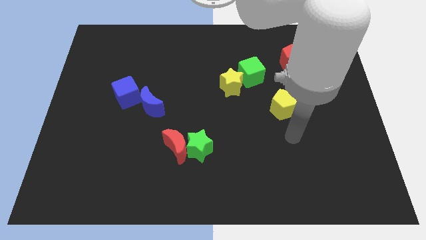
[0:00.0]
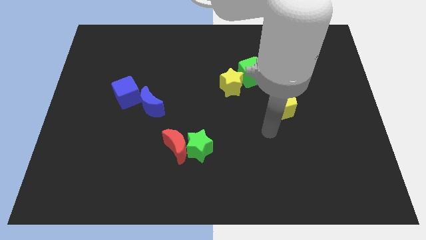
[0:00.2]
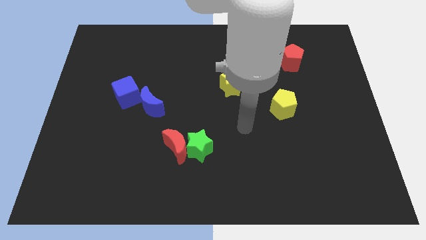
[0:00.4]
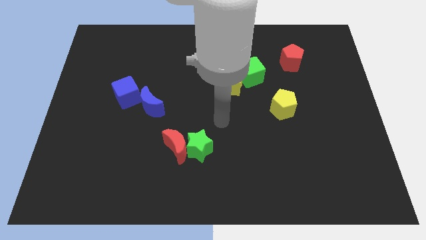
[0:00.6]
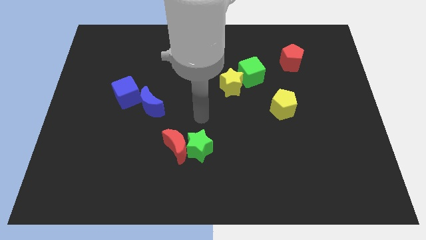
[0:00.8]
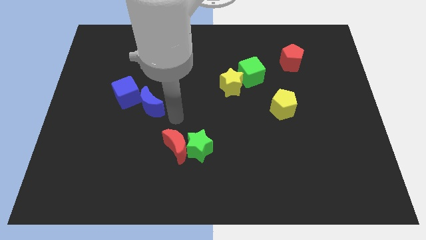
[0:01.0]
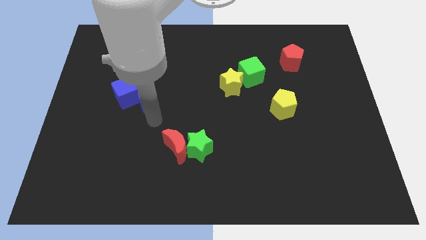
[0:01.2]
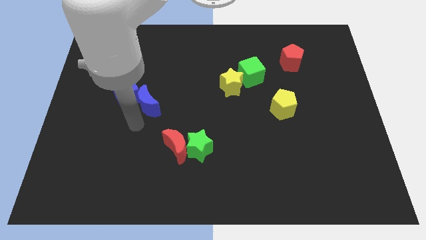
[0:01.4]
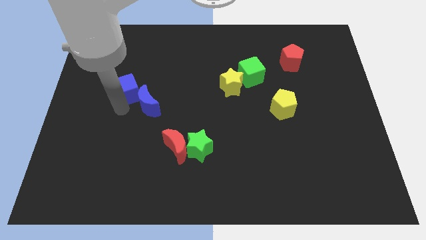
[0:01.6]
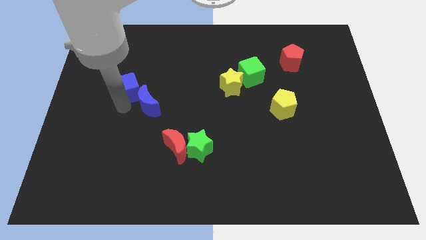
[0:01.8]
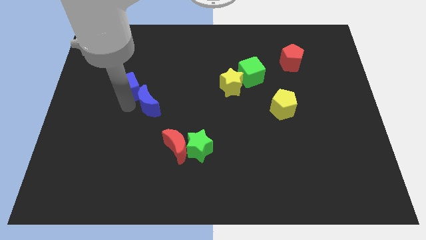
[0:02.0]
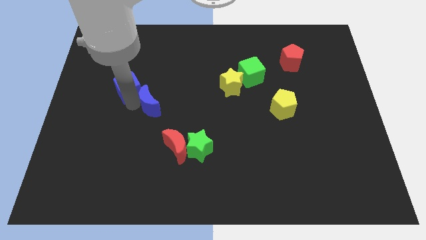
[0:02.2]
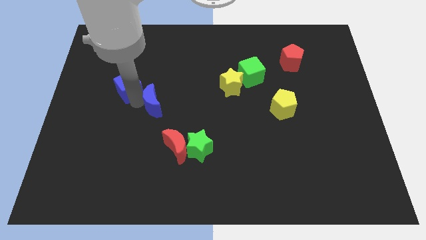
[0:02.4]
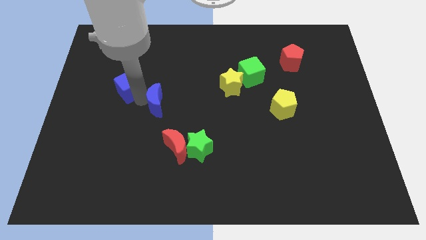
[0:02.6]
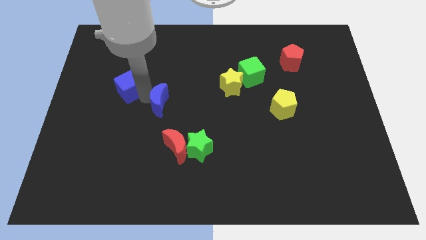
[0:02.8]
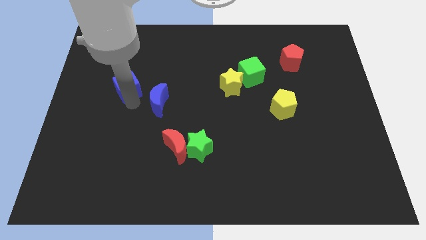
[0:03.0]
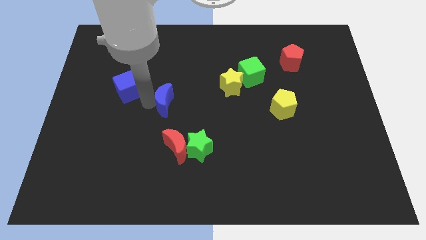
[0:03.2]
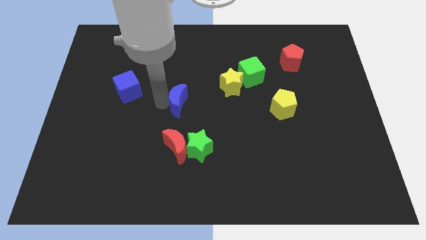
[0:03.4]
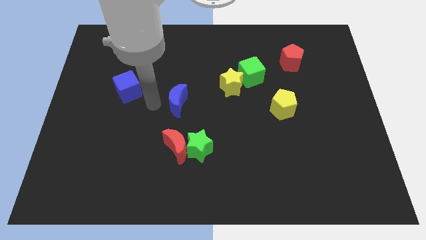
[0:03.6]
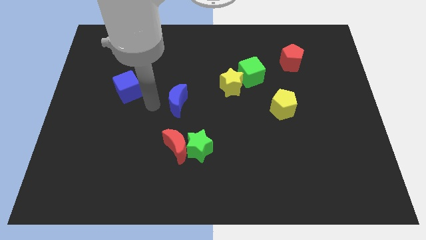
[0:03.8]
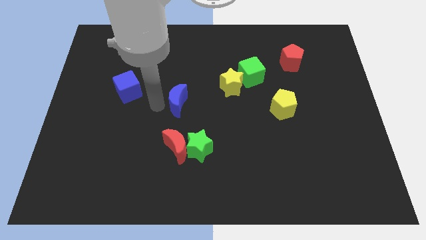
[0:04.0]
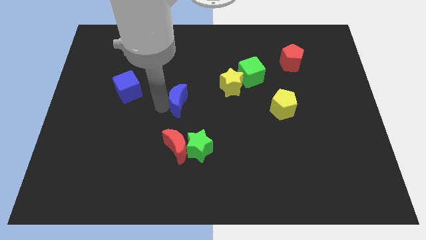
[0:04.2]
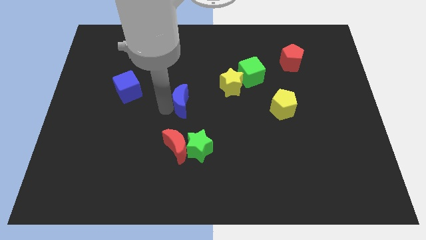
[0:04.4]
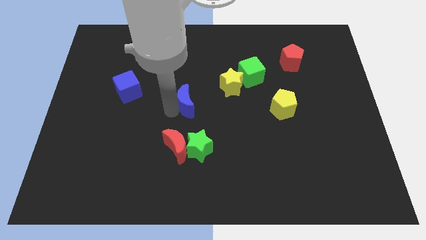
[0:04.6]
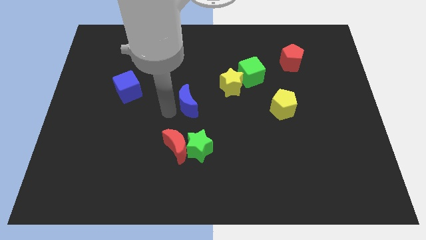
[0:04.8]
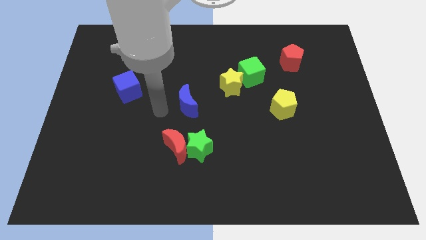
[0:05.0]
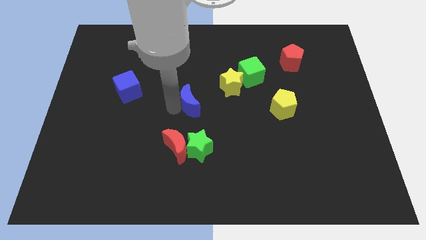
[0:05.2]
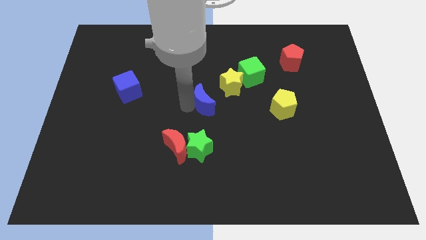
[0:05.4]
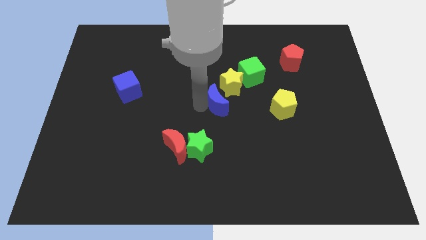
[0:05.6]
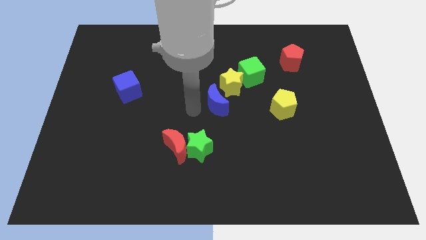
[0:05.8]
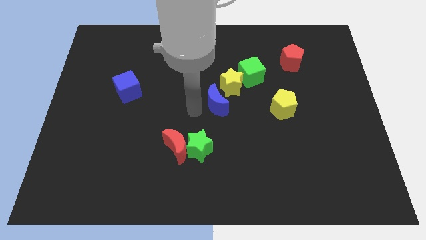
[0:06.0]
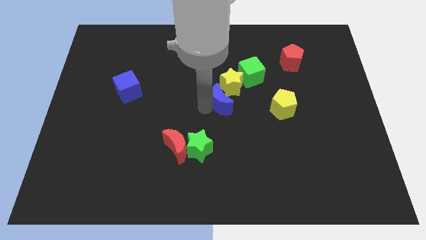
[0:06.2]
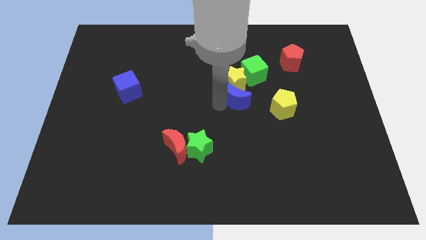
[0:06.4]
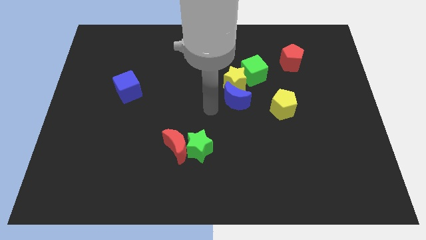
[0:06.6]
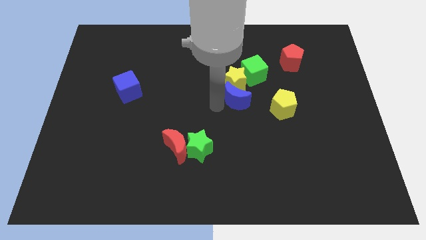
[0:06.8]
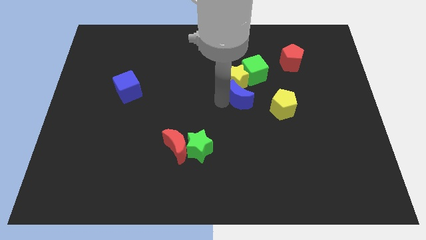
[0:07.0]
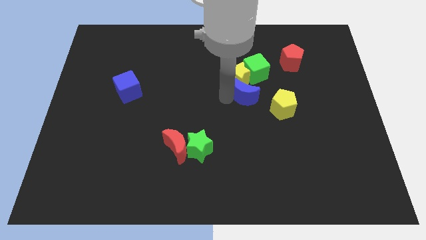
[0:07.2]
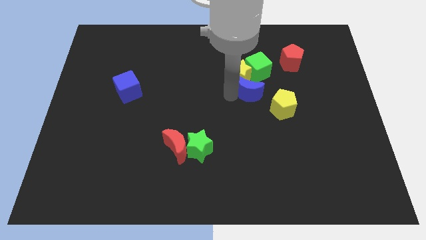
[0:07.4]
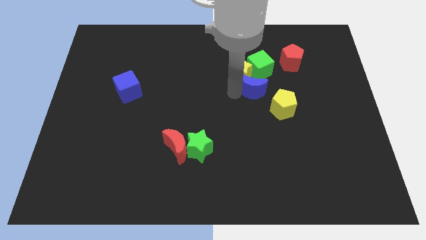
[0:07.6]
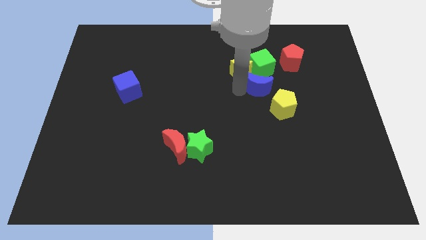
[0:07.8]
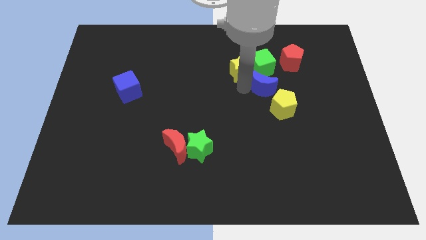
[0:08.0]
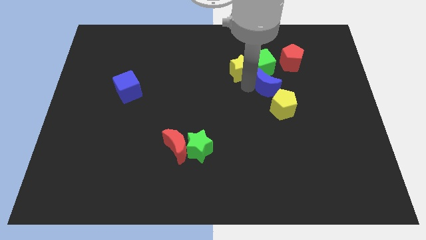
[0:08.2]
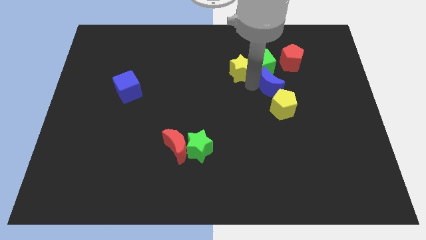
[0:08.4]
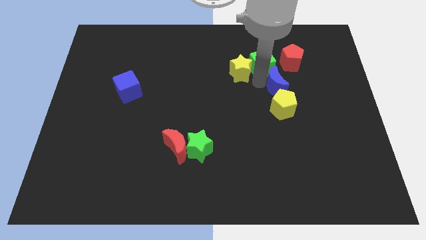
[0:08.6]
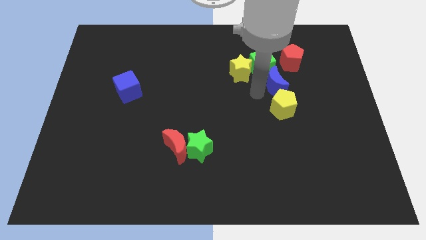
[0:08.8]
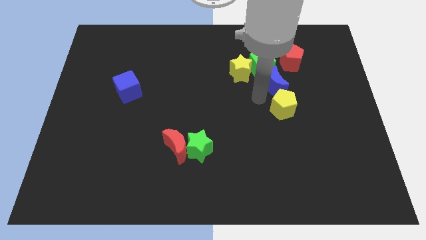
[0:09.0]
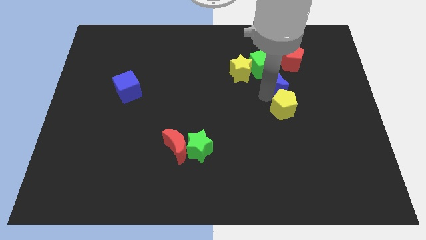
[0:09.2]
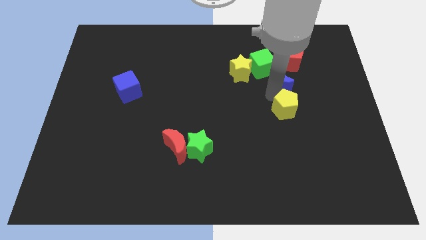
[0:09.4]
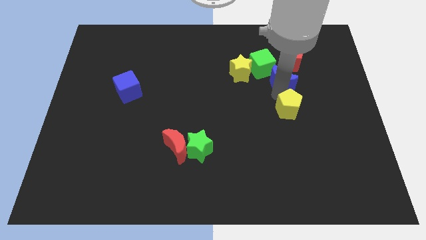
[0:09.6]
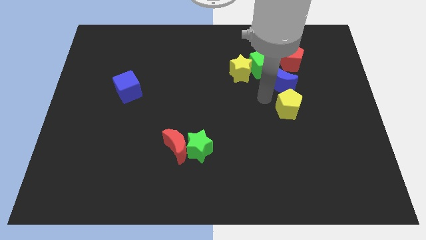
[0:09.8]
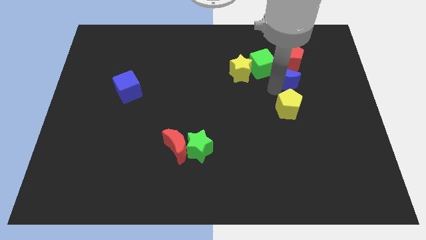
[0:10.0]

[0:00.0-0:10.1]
push the blue moon just right of the green cube

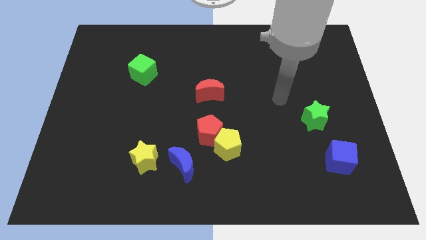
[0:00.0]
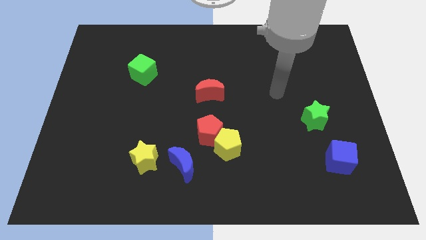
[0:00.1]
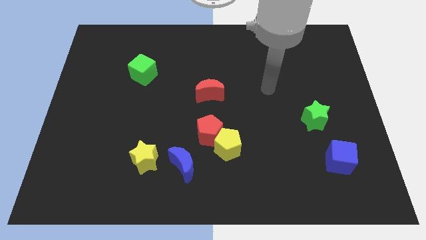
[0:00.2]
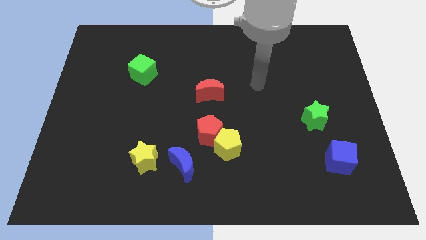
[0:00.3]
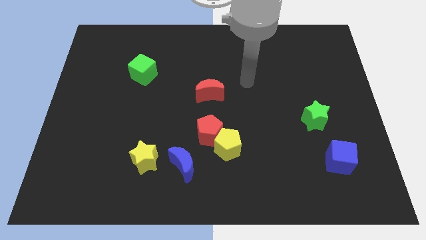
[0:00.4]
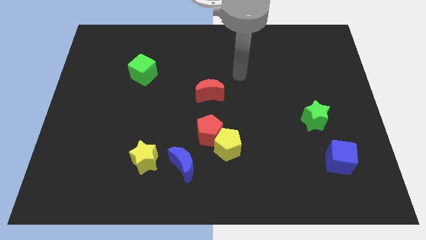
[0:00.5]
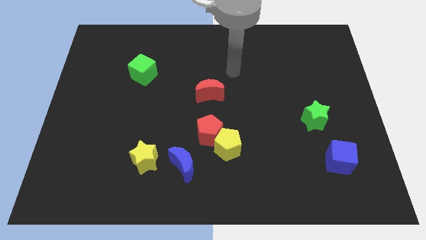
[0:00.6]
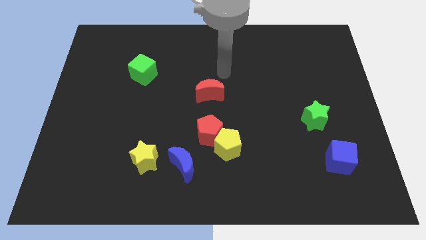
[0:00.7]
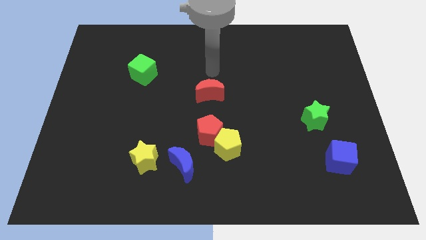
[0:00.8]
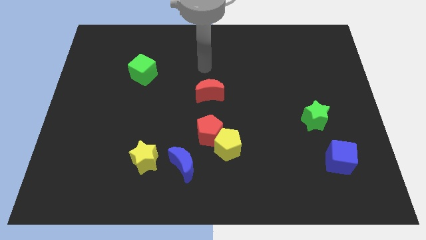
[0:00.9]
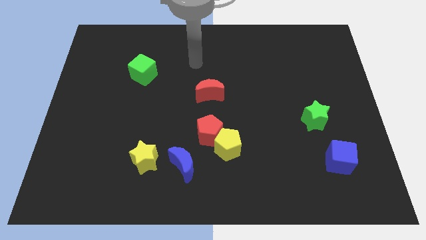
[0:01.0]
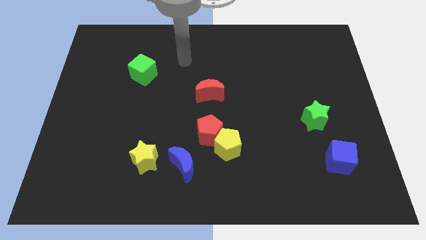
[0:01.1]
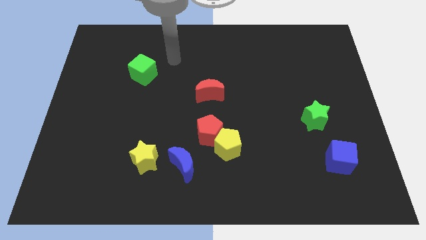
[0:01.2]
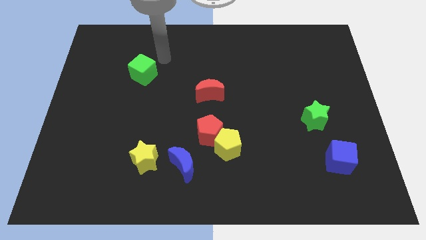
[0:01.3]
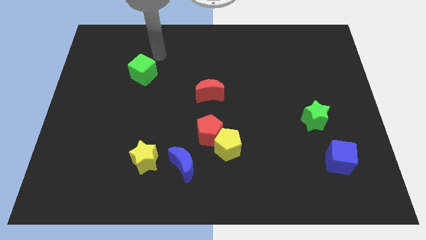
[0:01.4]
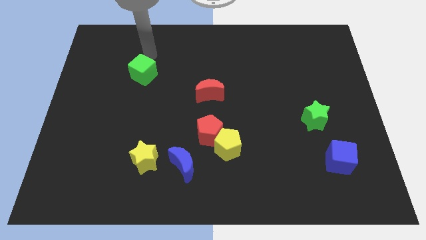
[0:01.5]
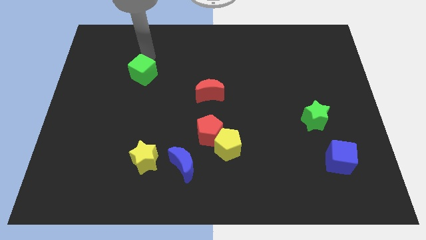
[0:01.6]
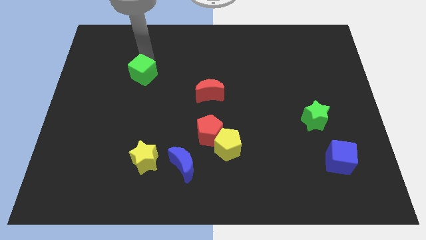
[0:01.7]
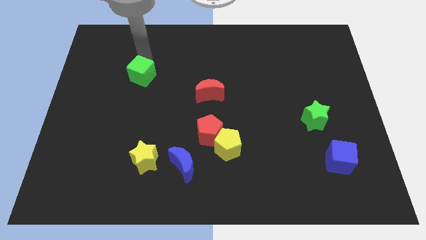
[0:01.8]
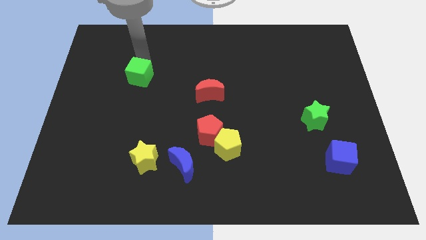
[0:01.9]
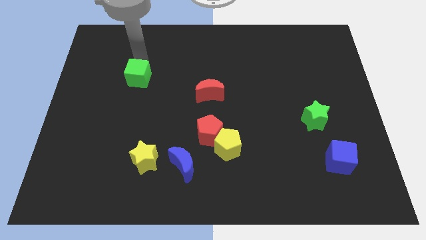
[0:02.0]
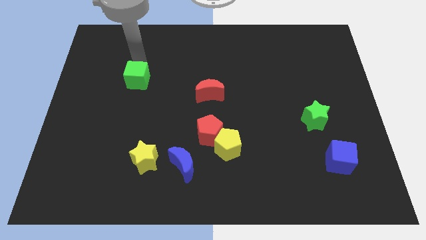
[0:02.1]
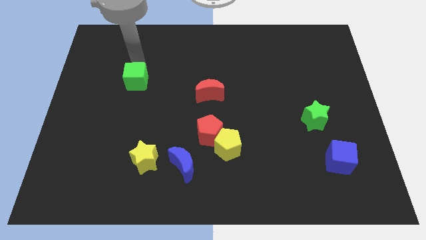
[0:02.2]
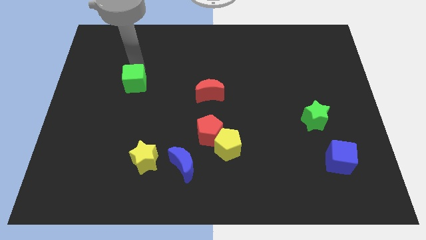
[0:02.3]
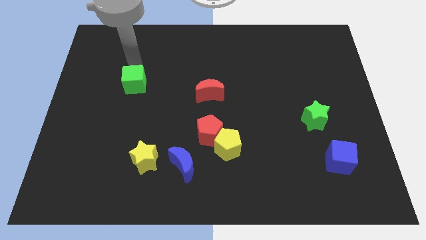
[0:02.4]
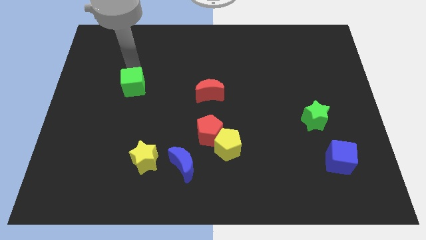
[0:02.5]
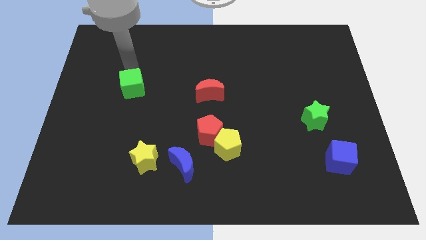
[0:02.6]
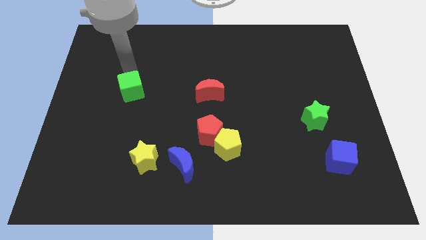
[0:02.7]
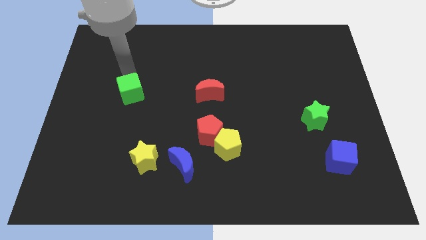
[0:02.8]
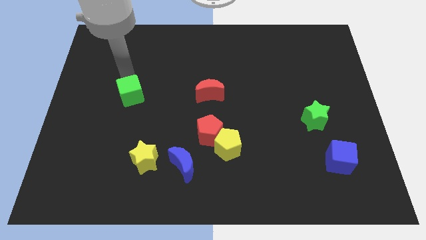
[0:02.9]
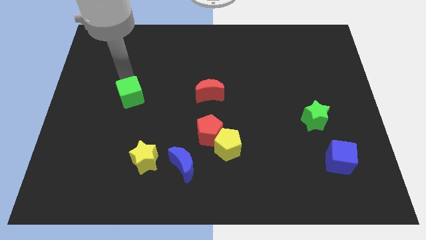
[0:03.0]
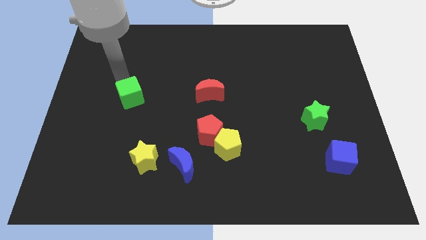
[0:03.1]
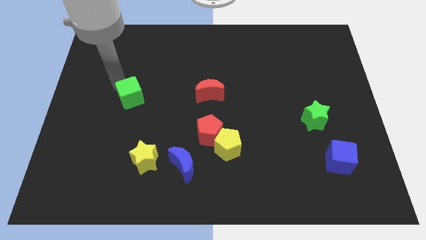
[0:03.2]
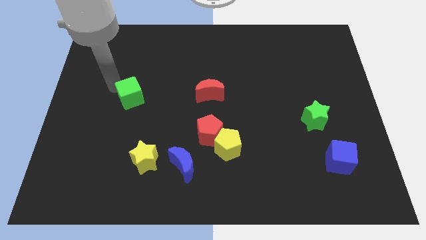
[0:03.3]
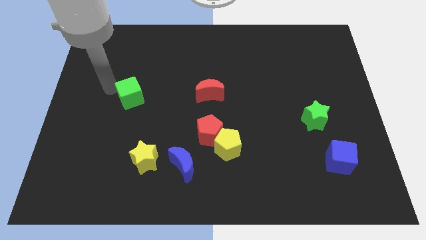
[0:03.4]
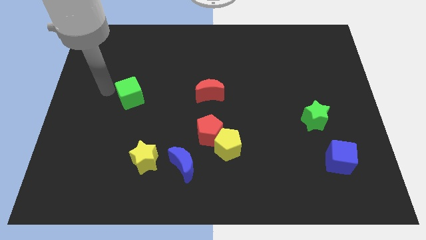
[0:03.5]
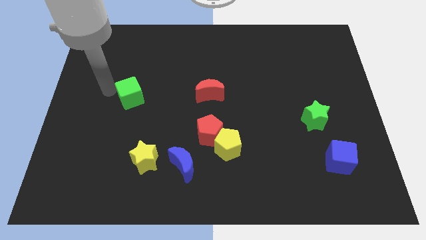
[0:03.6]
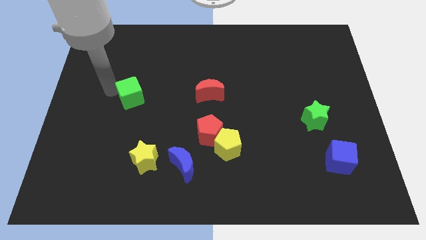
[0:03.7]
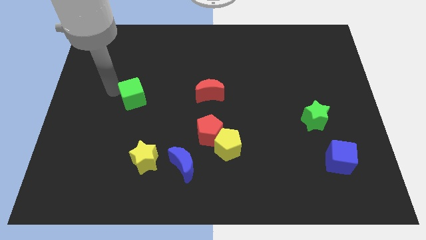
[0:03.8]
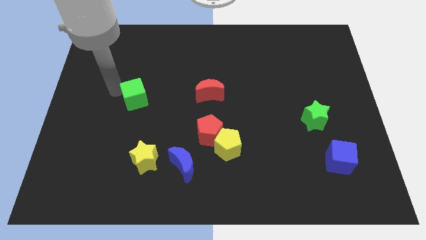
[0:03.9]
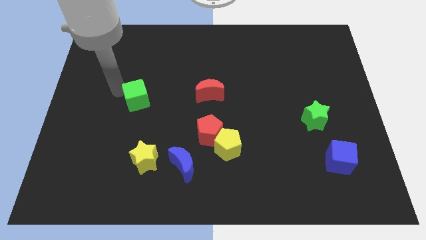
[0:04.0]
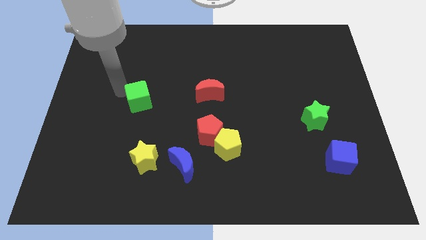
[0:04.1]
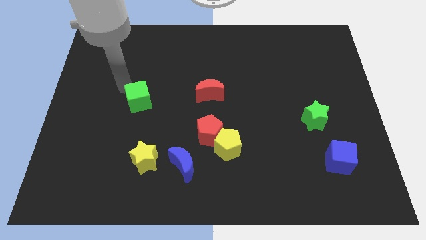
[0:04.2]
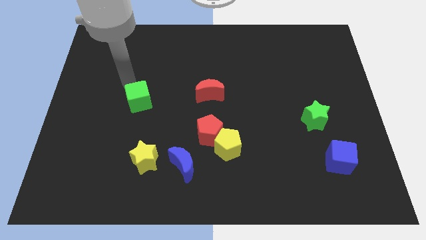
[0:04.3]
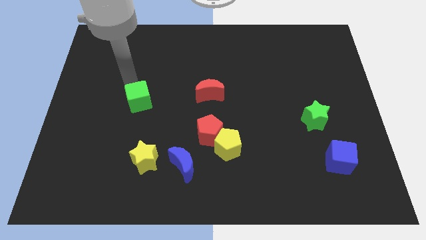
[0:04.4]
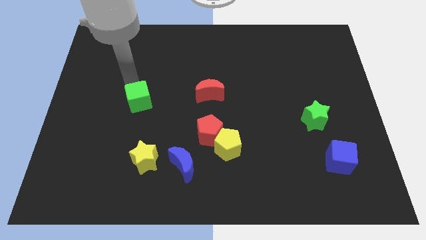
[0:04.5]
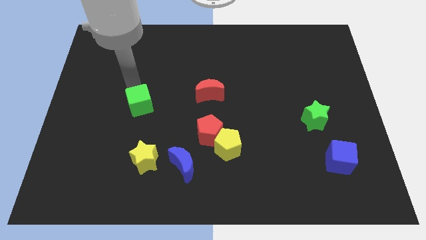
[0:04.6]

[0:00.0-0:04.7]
push the green cube to the top side of the yellow star
